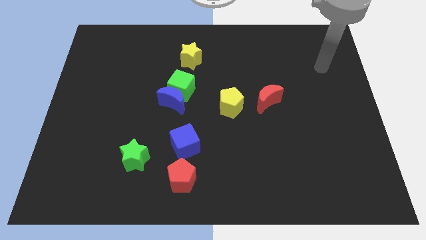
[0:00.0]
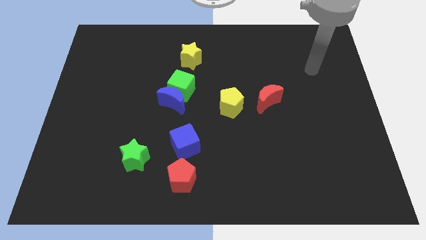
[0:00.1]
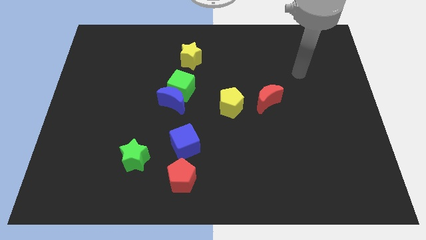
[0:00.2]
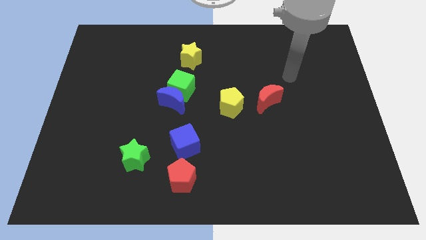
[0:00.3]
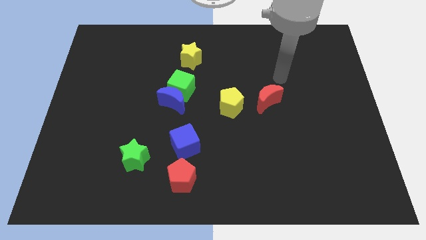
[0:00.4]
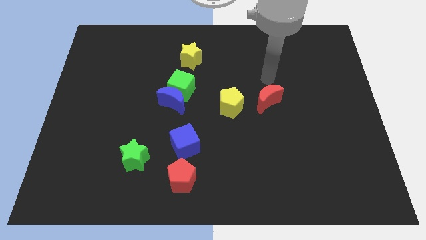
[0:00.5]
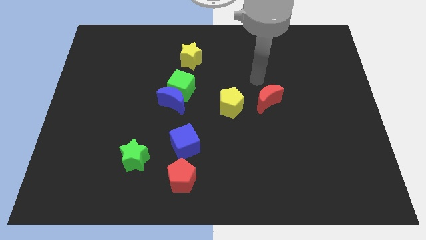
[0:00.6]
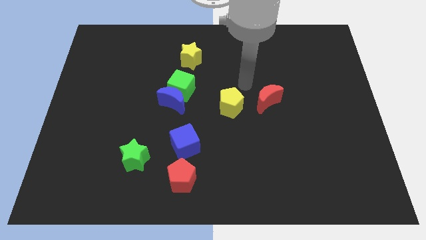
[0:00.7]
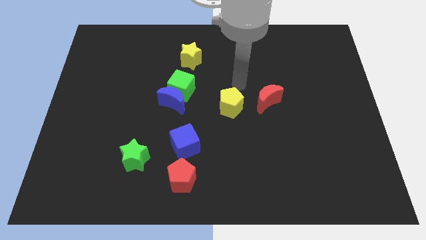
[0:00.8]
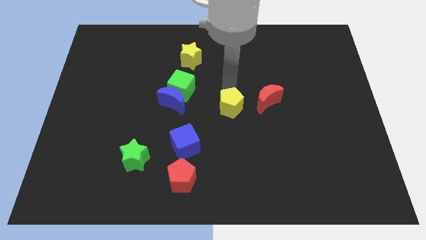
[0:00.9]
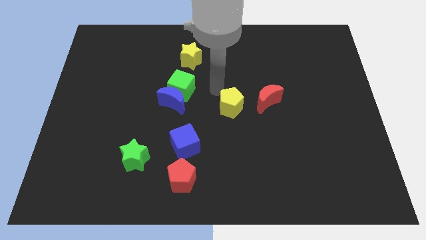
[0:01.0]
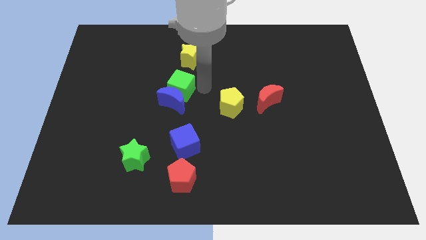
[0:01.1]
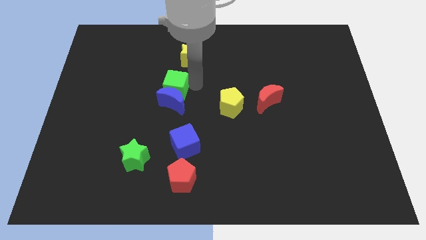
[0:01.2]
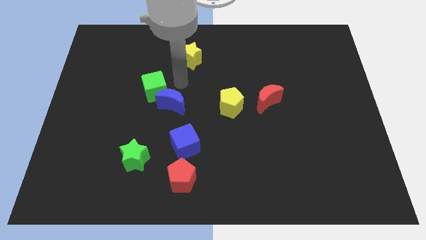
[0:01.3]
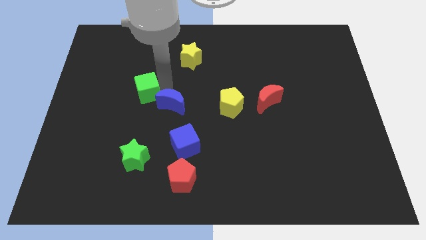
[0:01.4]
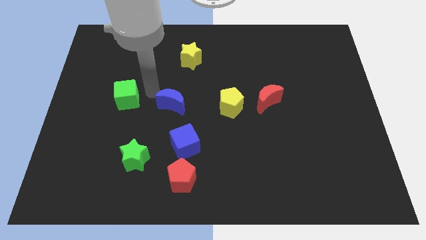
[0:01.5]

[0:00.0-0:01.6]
move the blue moon away from the green cube

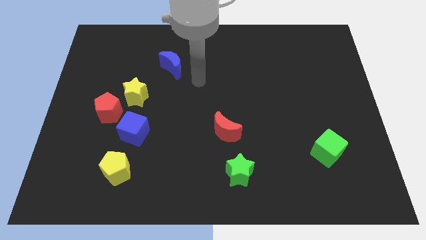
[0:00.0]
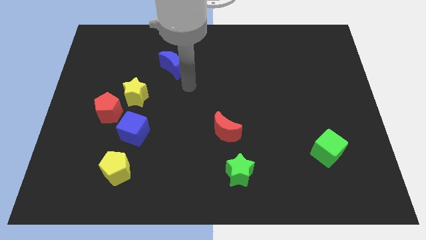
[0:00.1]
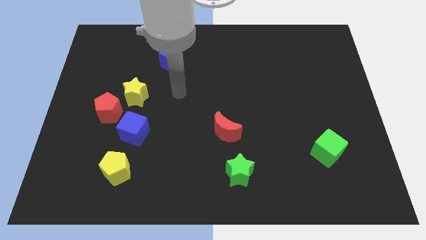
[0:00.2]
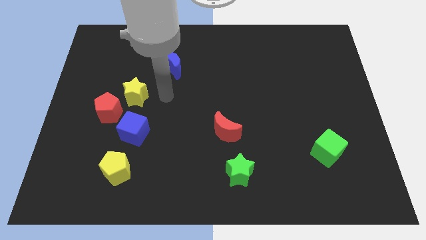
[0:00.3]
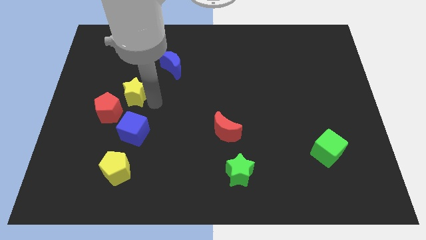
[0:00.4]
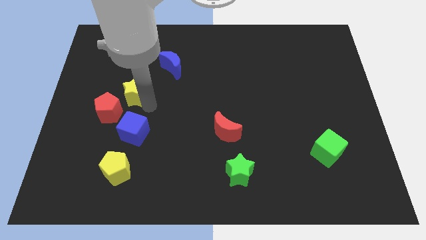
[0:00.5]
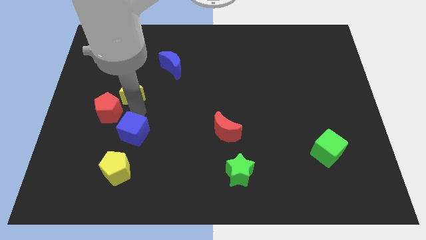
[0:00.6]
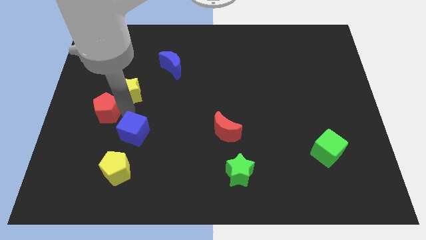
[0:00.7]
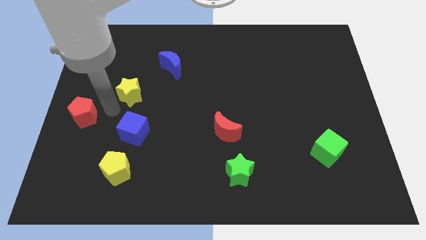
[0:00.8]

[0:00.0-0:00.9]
pull the yellow star apart from the red pentagon

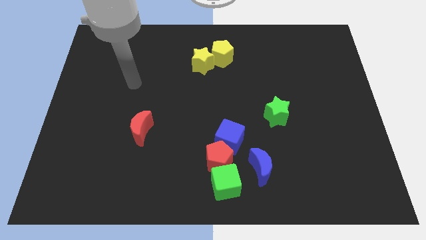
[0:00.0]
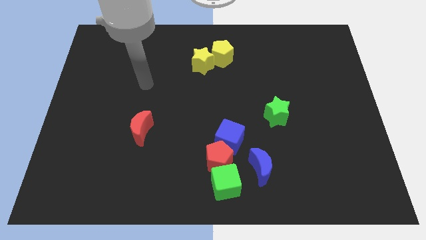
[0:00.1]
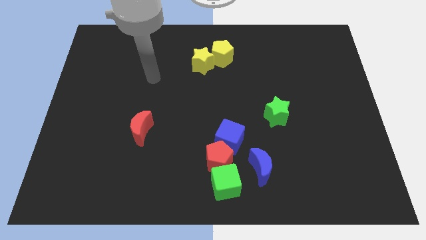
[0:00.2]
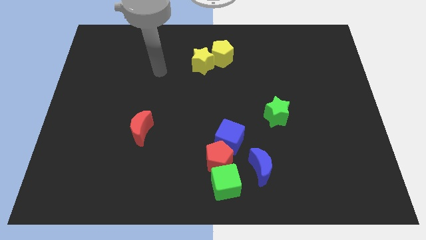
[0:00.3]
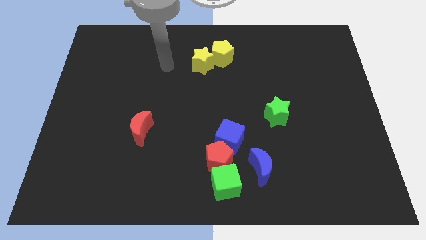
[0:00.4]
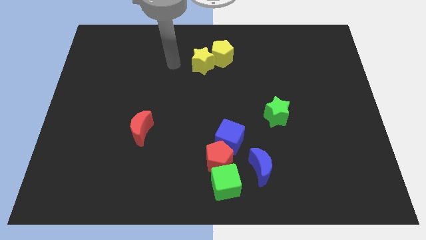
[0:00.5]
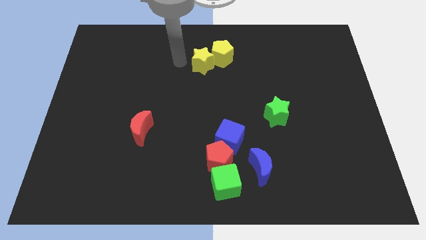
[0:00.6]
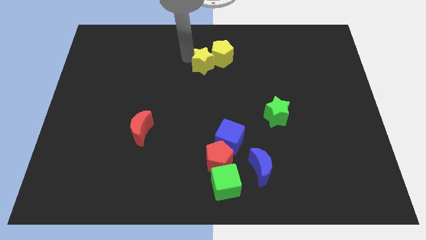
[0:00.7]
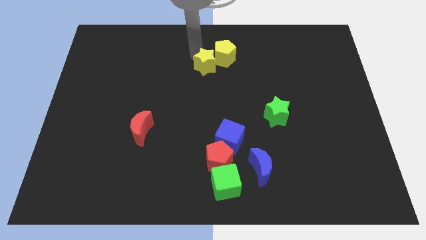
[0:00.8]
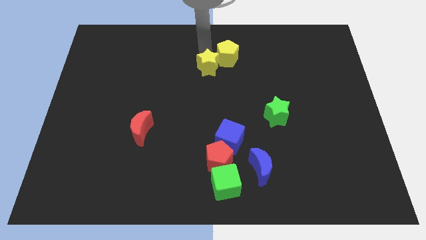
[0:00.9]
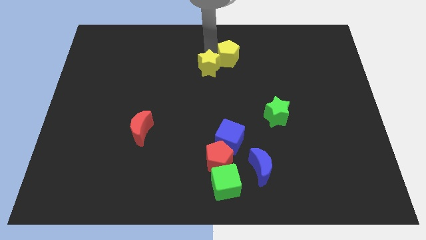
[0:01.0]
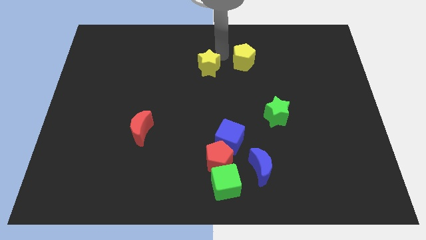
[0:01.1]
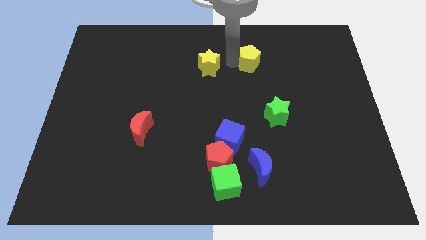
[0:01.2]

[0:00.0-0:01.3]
move the yellow star away from the yellow pentagon

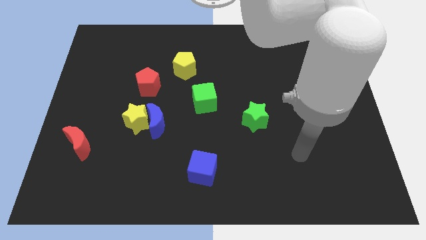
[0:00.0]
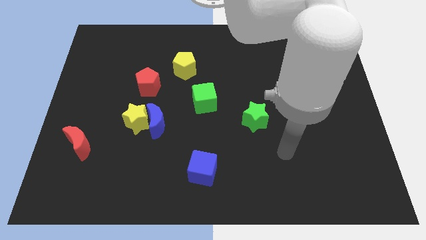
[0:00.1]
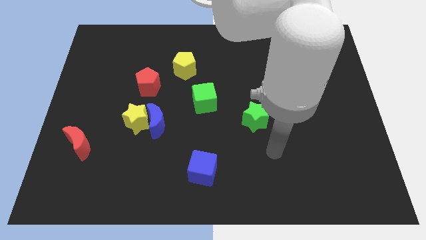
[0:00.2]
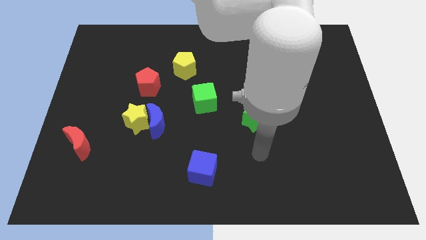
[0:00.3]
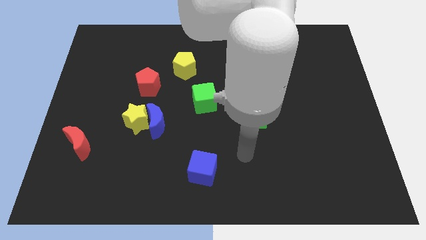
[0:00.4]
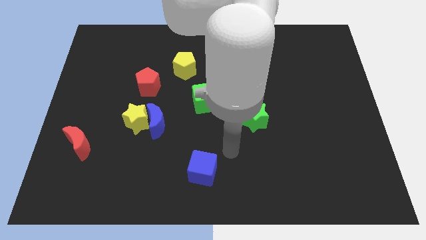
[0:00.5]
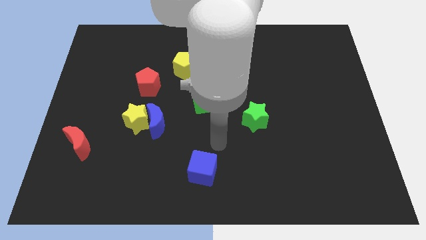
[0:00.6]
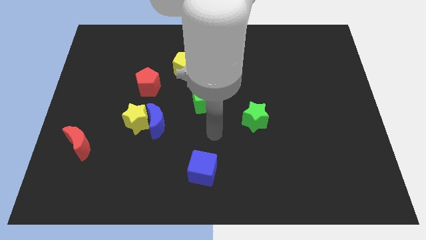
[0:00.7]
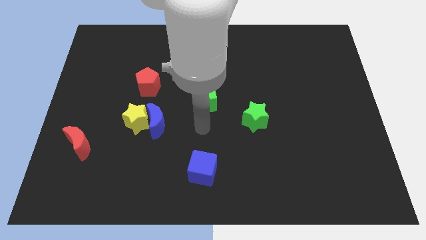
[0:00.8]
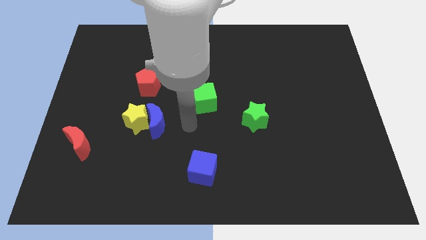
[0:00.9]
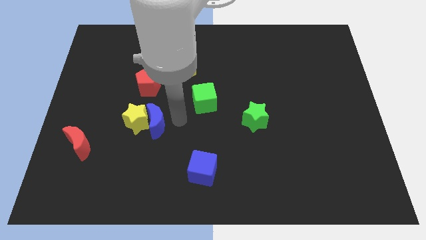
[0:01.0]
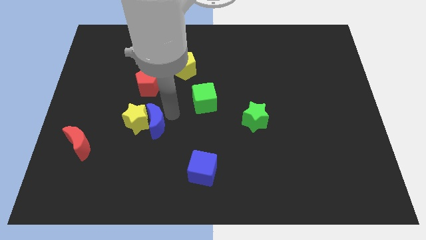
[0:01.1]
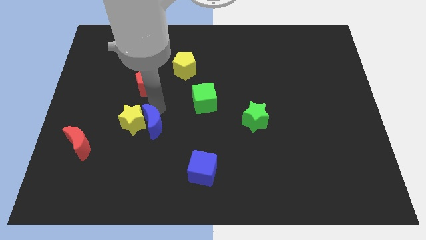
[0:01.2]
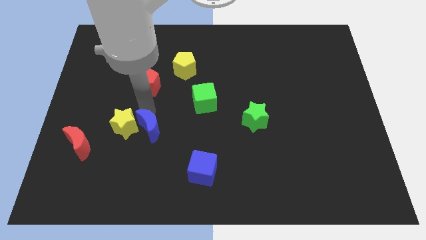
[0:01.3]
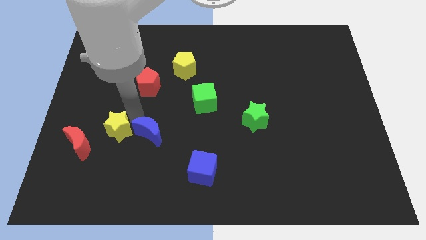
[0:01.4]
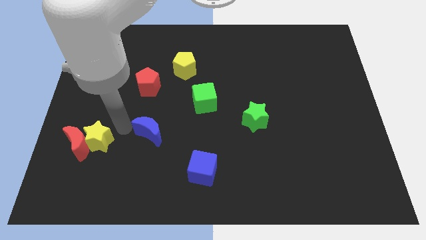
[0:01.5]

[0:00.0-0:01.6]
pull the blue moon apart from the yellow star

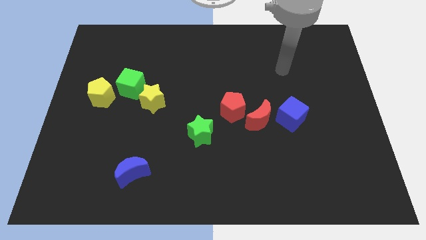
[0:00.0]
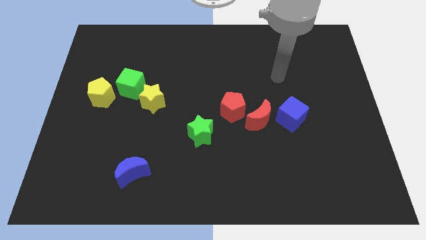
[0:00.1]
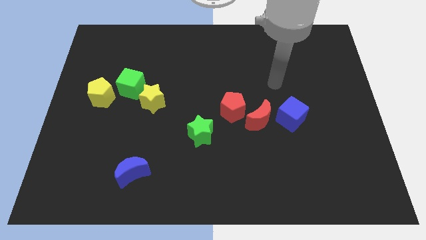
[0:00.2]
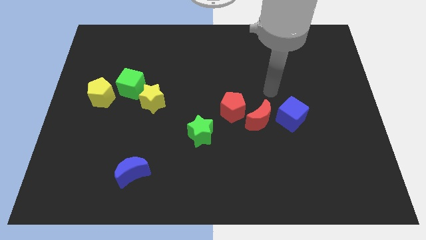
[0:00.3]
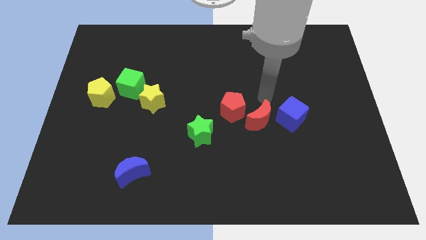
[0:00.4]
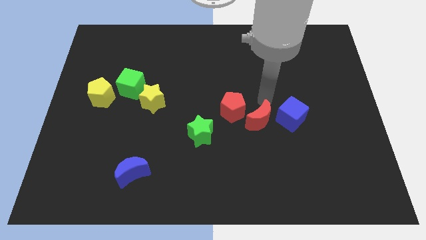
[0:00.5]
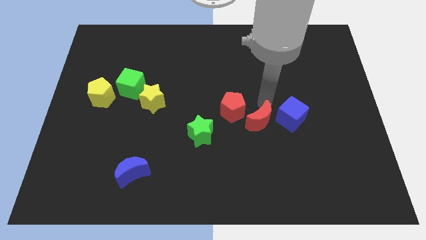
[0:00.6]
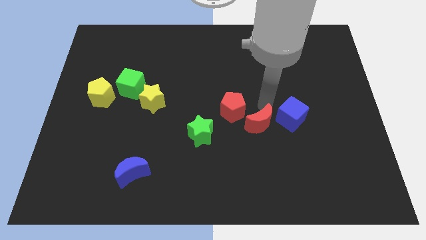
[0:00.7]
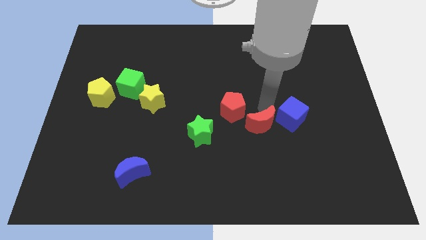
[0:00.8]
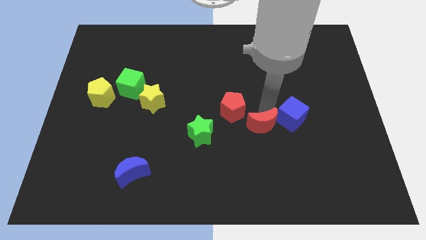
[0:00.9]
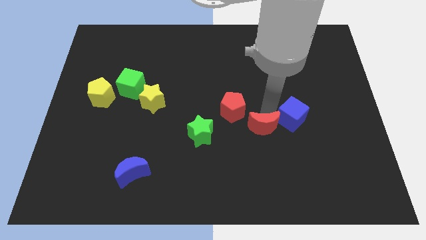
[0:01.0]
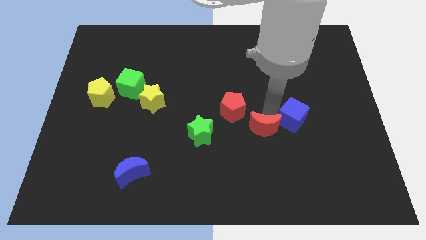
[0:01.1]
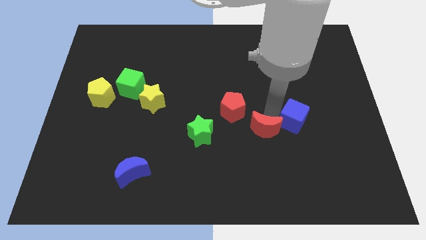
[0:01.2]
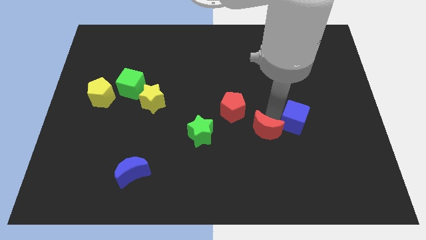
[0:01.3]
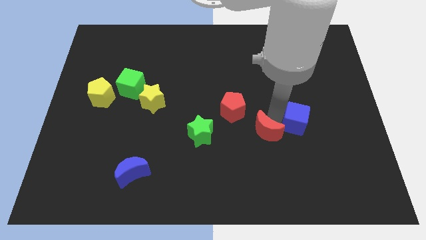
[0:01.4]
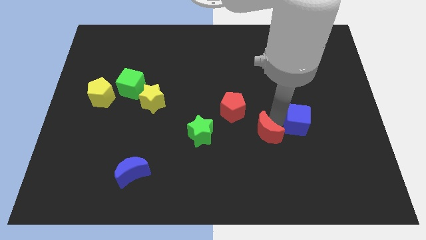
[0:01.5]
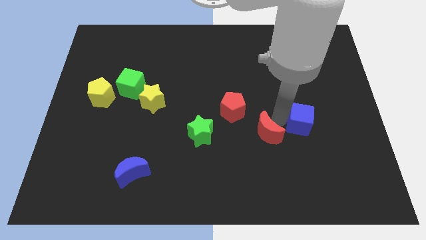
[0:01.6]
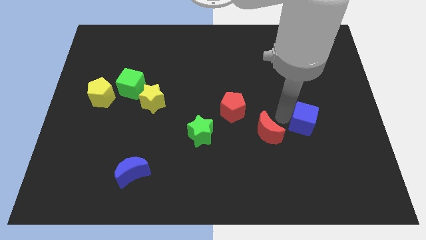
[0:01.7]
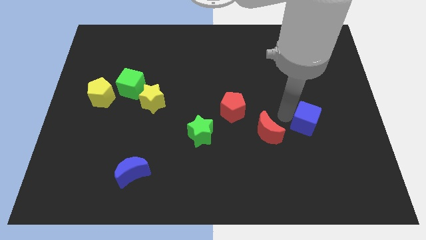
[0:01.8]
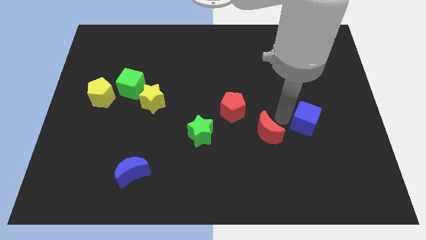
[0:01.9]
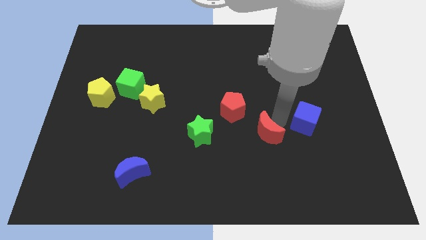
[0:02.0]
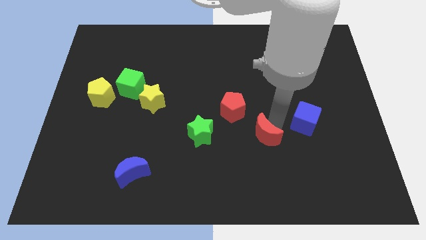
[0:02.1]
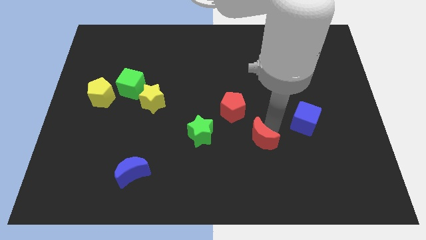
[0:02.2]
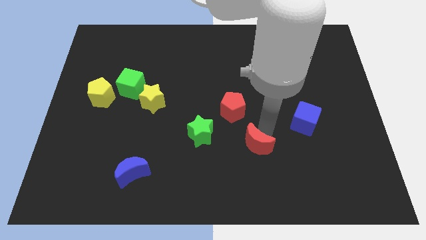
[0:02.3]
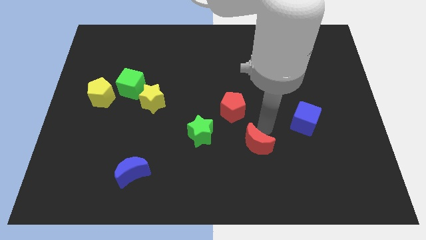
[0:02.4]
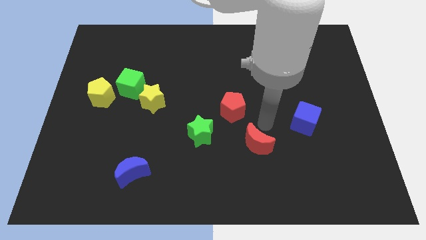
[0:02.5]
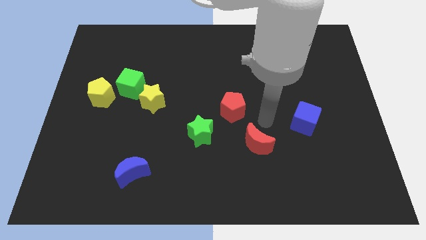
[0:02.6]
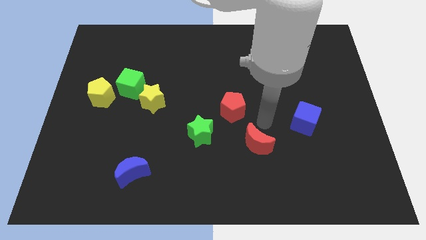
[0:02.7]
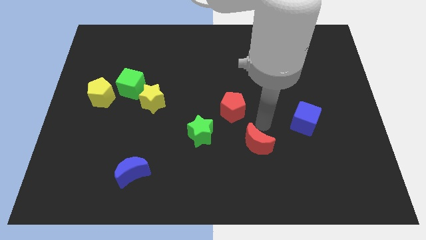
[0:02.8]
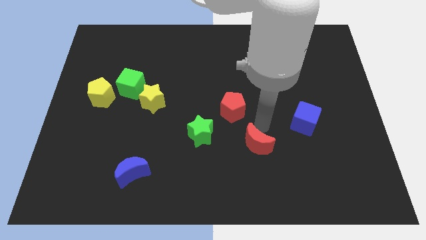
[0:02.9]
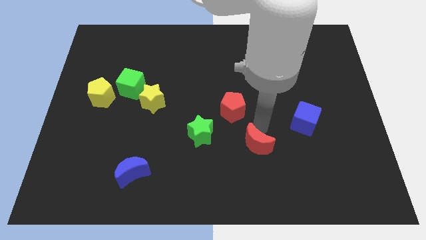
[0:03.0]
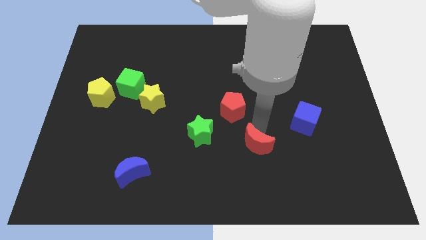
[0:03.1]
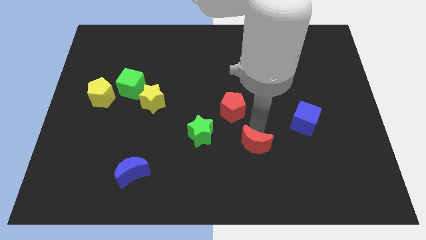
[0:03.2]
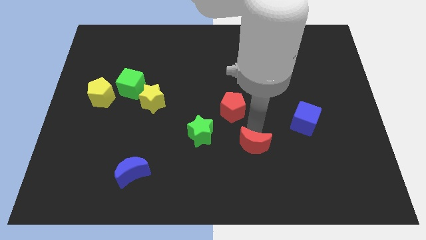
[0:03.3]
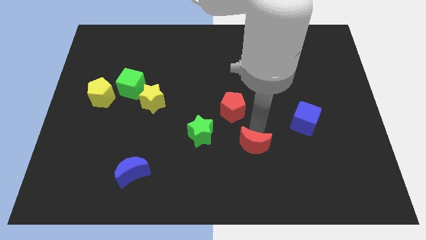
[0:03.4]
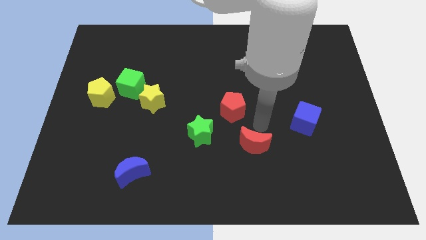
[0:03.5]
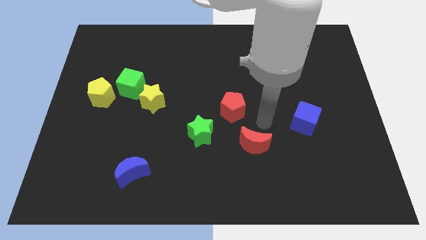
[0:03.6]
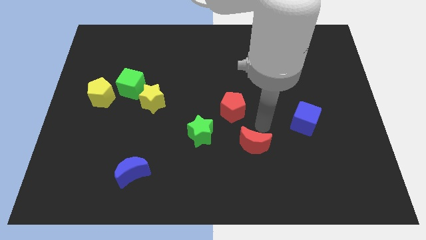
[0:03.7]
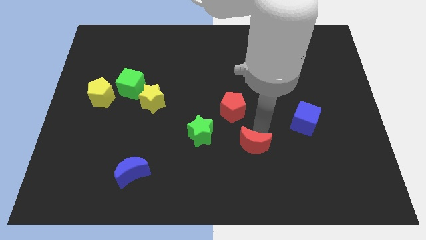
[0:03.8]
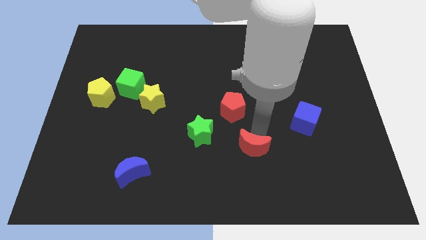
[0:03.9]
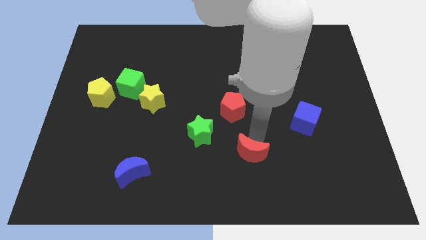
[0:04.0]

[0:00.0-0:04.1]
move the red moon away from the red pentagon and blue cube
